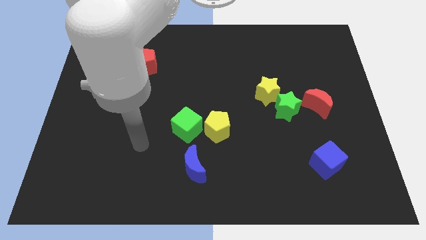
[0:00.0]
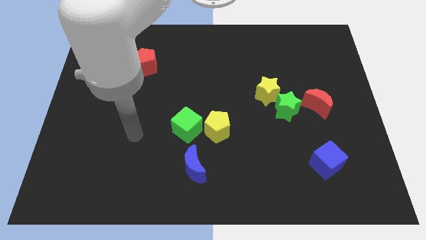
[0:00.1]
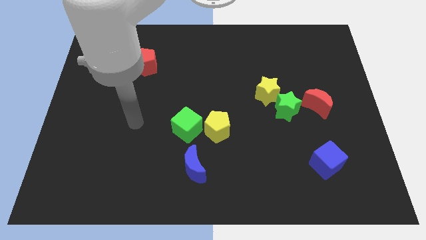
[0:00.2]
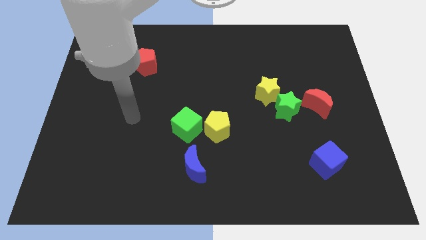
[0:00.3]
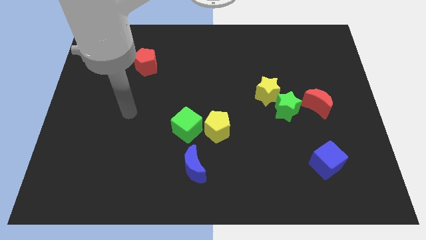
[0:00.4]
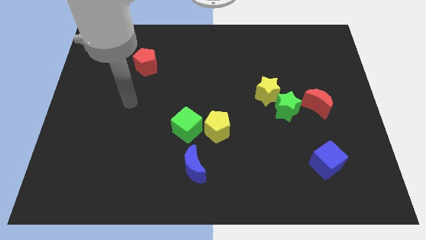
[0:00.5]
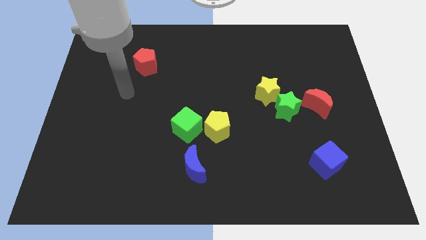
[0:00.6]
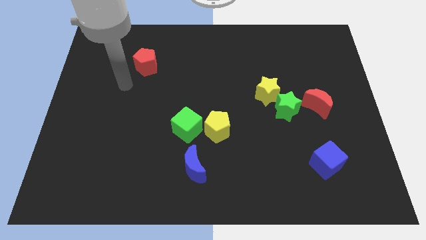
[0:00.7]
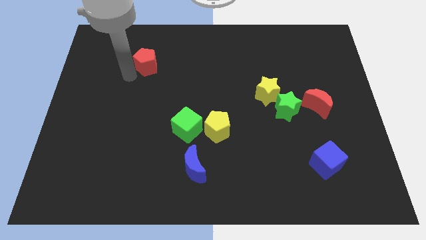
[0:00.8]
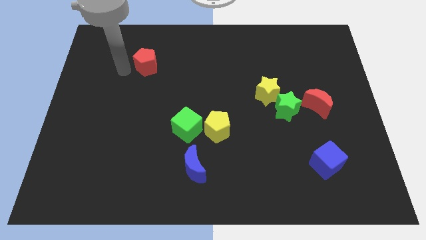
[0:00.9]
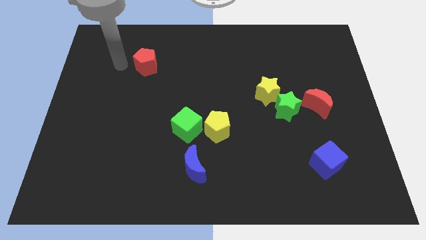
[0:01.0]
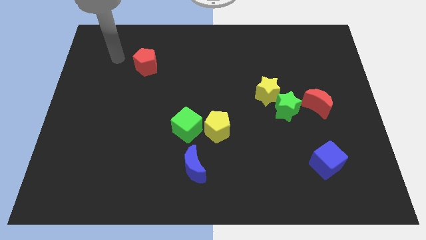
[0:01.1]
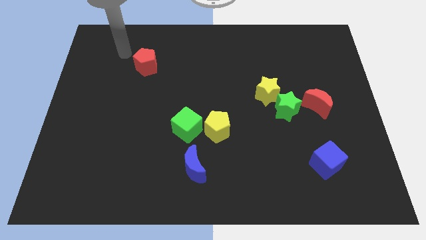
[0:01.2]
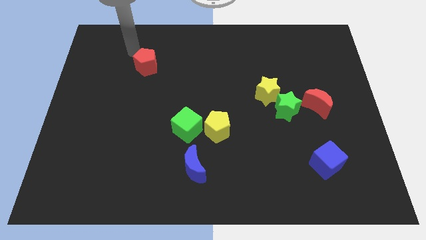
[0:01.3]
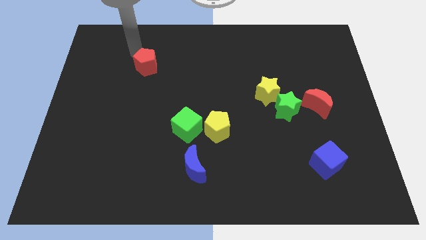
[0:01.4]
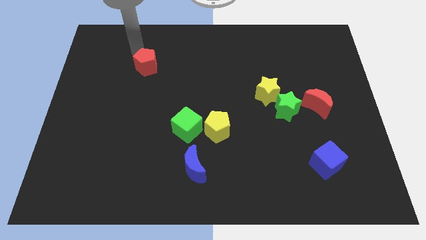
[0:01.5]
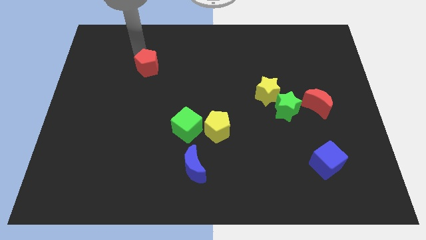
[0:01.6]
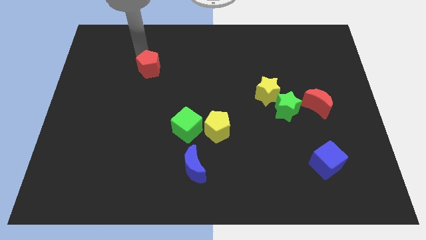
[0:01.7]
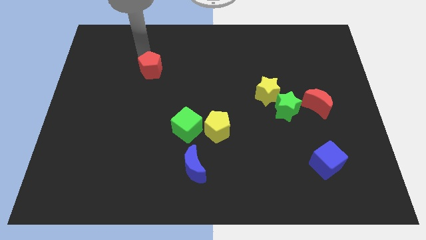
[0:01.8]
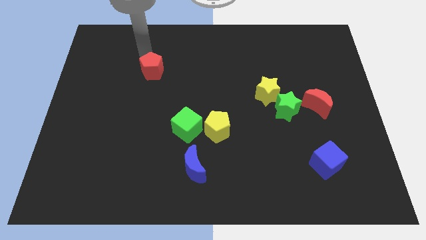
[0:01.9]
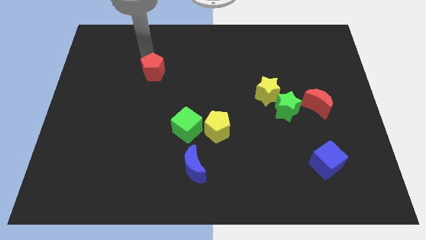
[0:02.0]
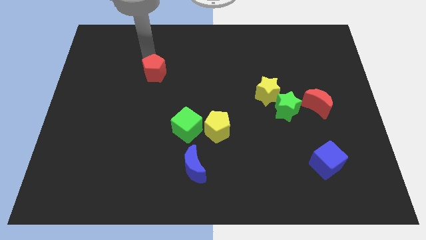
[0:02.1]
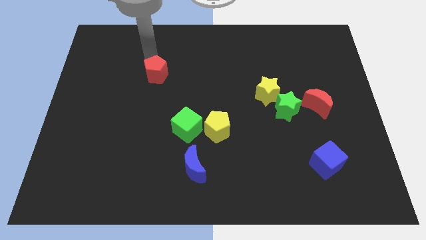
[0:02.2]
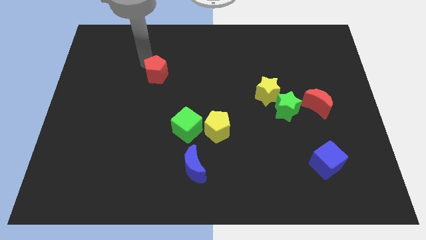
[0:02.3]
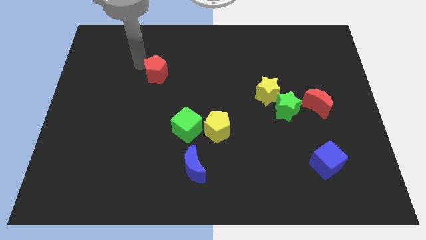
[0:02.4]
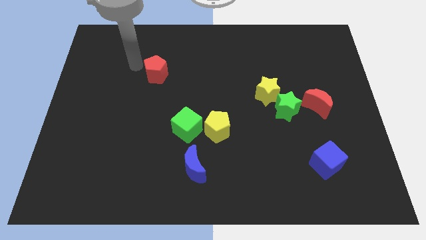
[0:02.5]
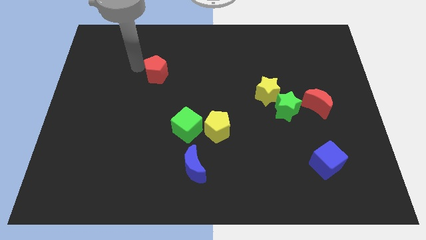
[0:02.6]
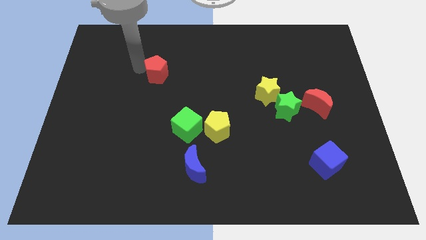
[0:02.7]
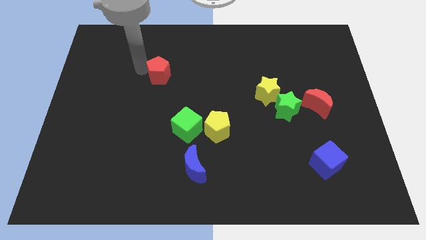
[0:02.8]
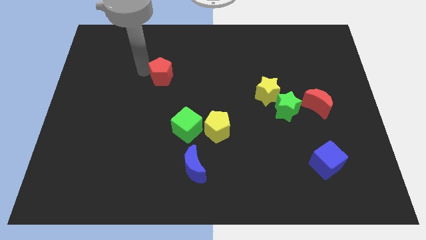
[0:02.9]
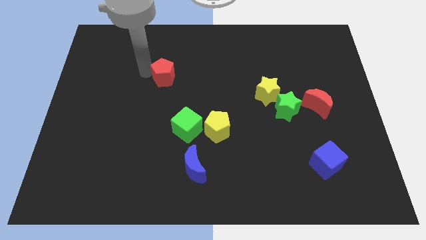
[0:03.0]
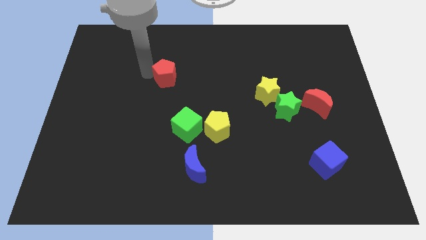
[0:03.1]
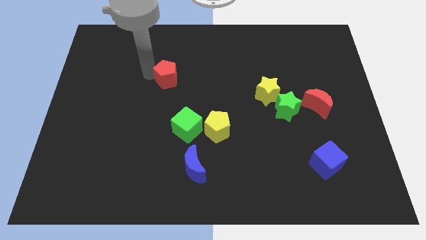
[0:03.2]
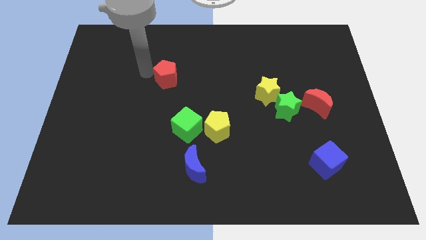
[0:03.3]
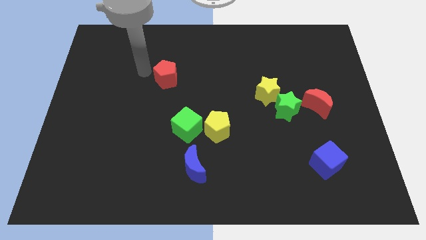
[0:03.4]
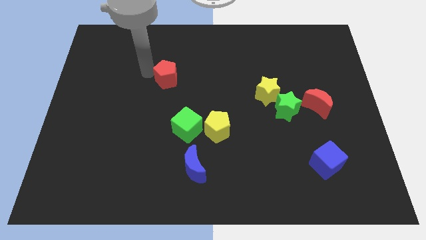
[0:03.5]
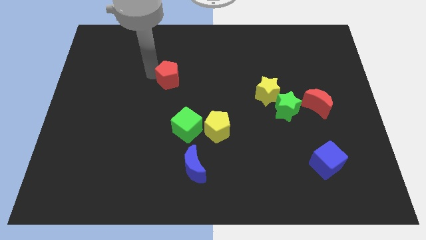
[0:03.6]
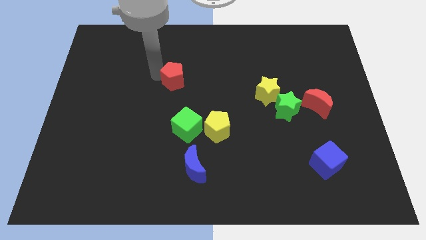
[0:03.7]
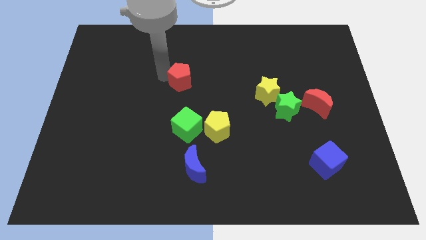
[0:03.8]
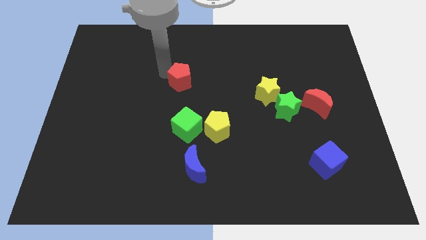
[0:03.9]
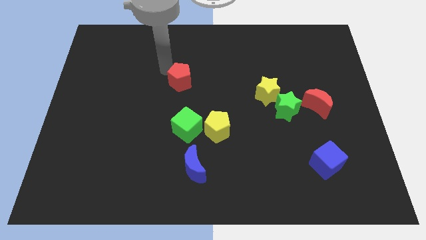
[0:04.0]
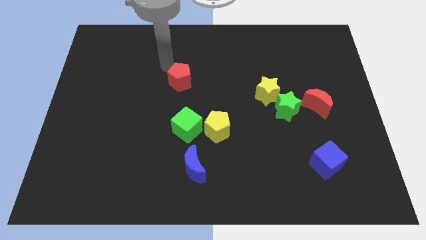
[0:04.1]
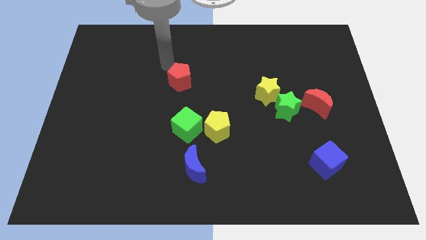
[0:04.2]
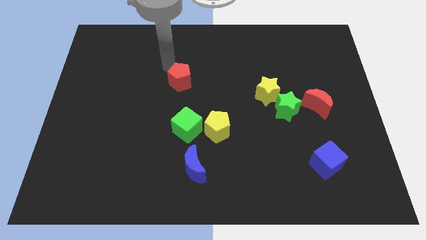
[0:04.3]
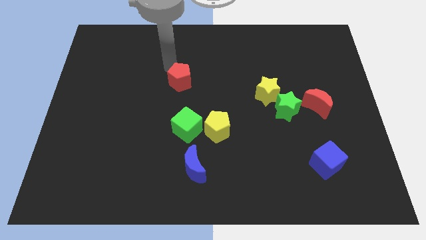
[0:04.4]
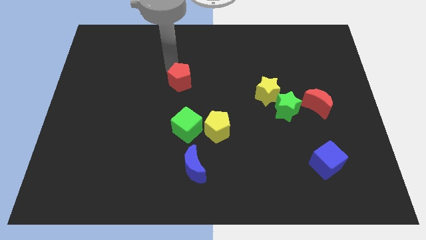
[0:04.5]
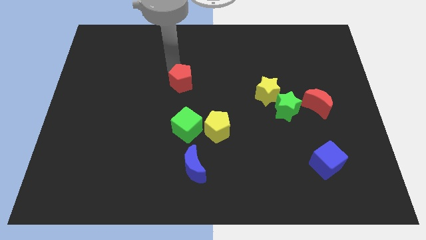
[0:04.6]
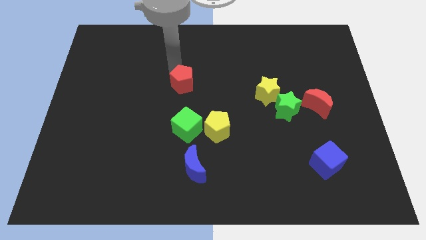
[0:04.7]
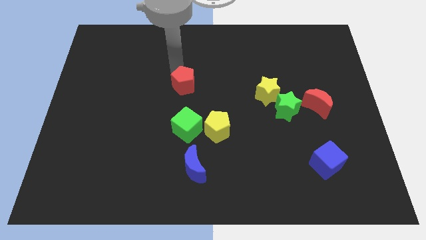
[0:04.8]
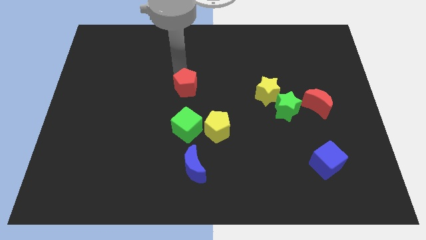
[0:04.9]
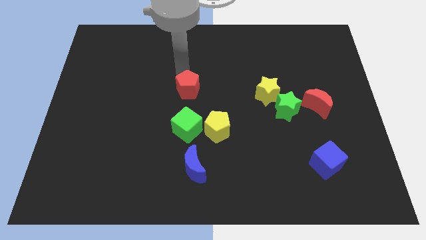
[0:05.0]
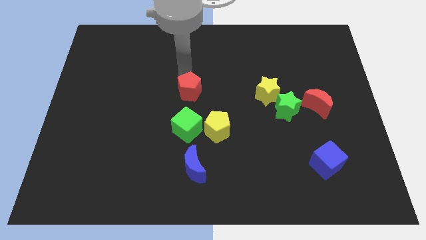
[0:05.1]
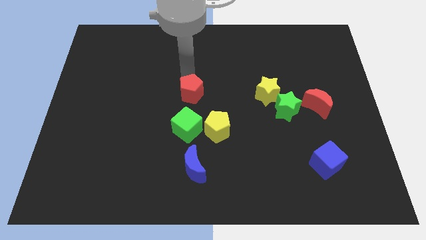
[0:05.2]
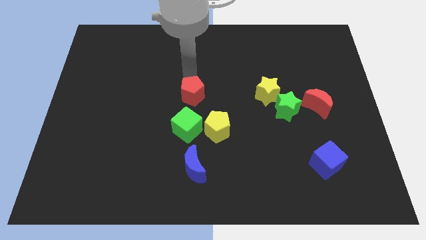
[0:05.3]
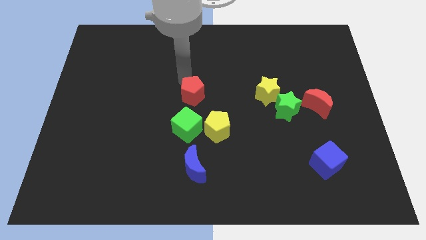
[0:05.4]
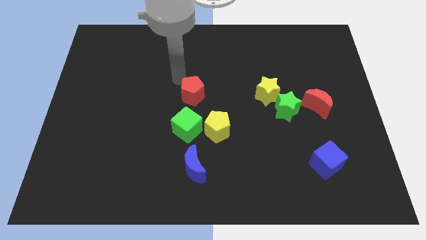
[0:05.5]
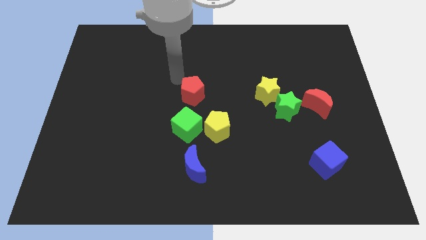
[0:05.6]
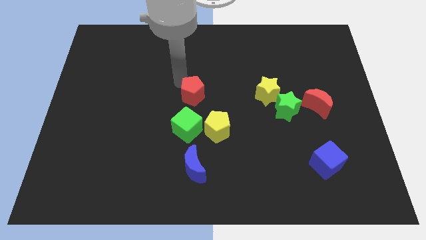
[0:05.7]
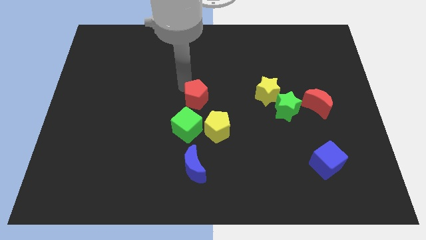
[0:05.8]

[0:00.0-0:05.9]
slide the red pentagon diagonally up and to the right of the green cube

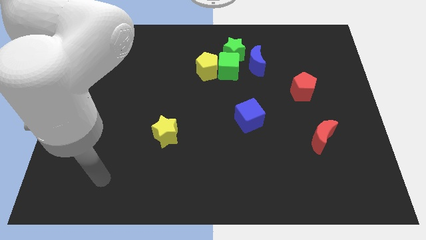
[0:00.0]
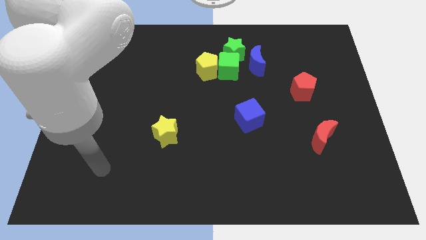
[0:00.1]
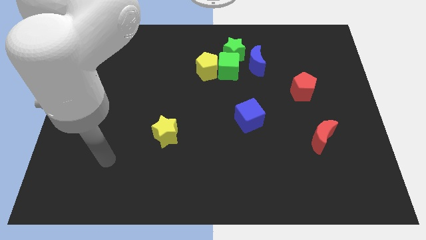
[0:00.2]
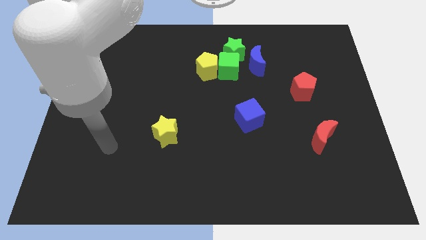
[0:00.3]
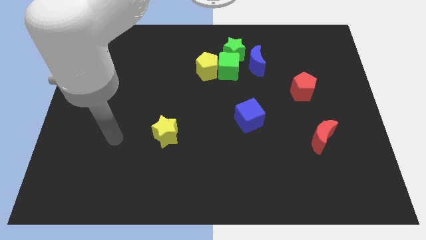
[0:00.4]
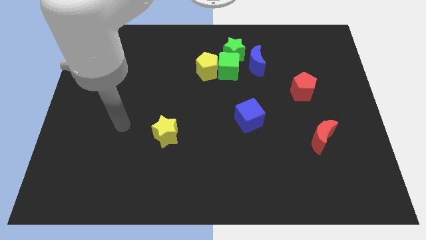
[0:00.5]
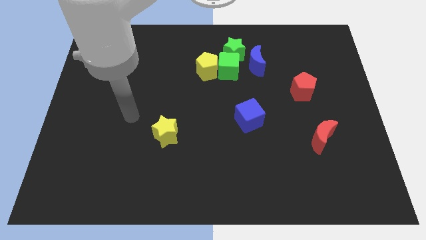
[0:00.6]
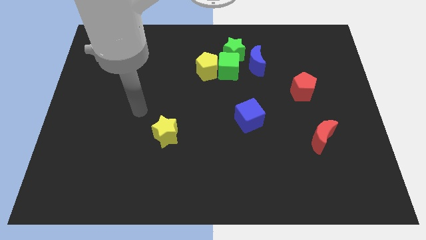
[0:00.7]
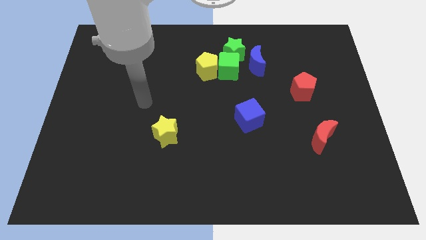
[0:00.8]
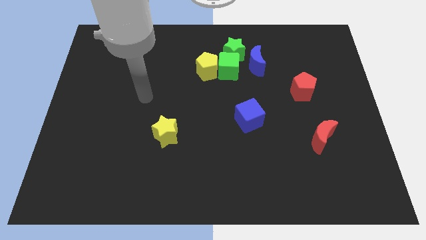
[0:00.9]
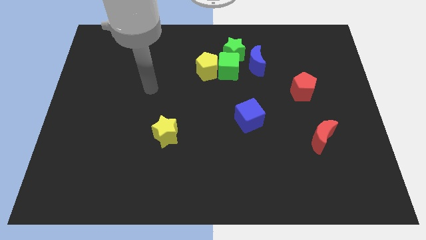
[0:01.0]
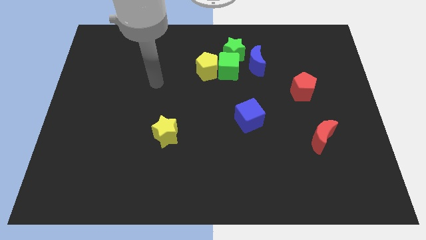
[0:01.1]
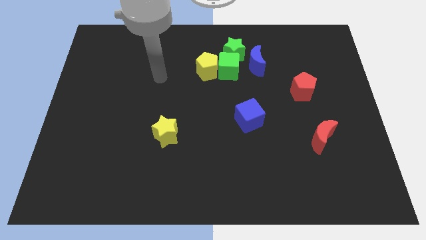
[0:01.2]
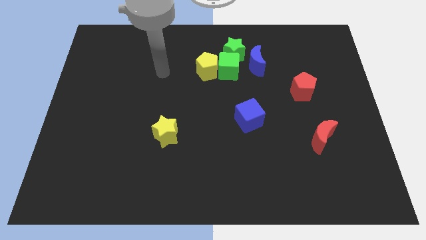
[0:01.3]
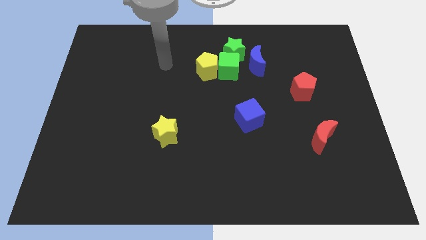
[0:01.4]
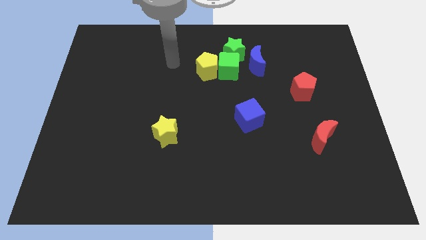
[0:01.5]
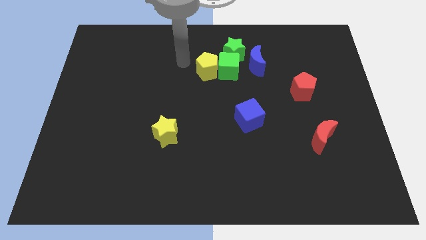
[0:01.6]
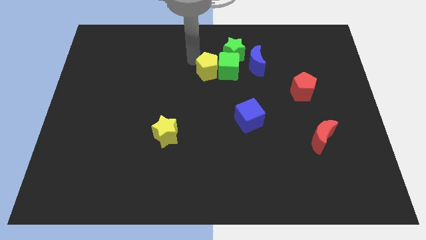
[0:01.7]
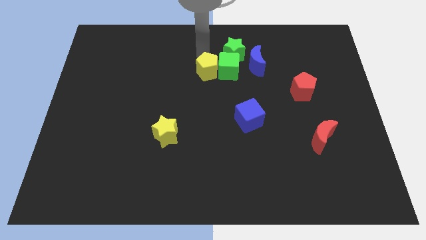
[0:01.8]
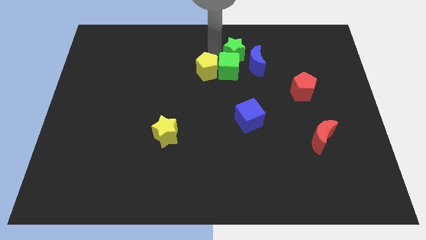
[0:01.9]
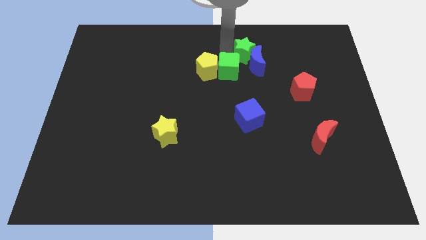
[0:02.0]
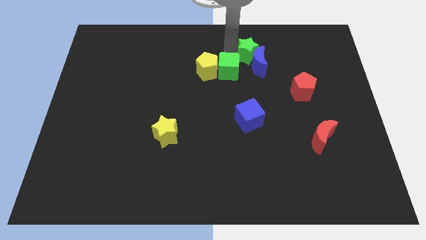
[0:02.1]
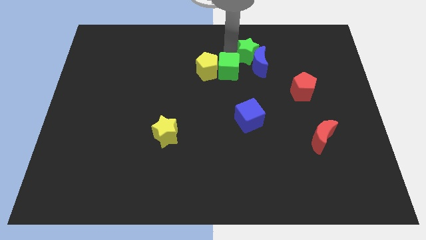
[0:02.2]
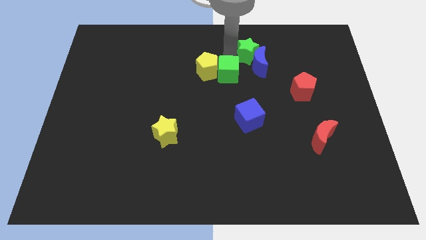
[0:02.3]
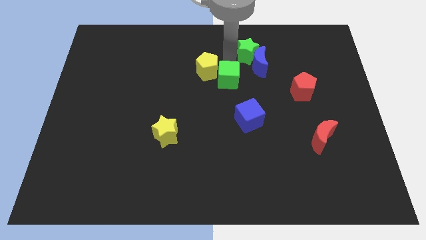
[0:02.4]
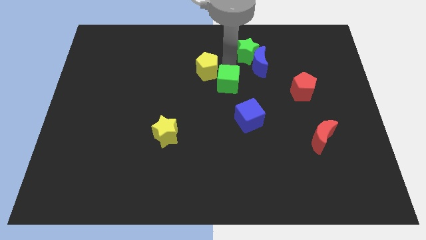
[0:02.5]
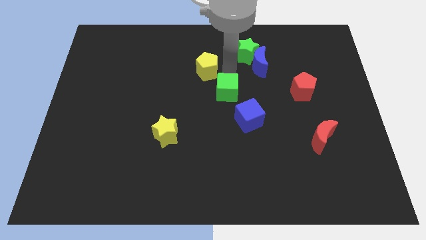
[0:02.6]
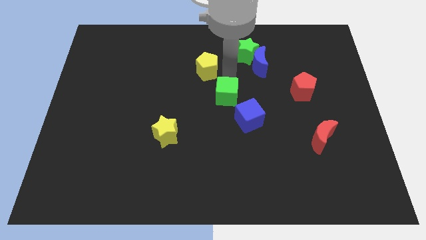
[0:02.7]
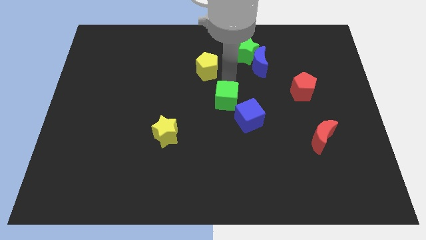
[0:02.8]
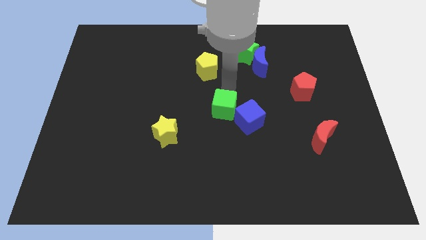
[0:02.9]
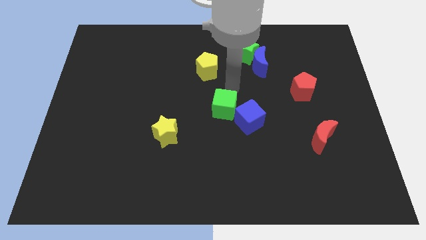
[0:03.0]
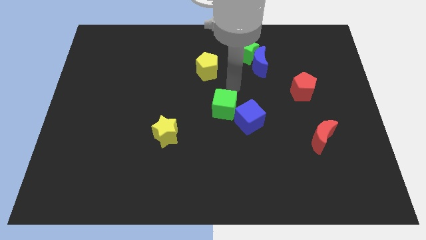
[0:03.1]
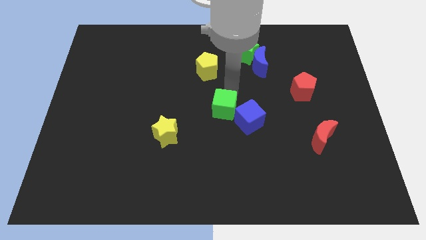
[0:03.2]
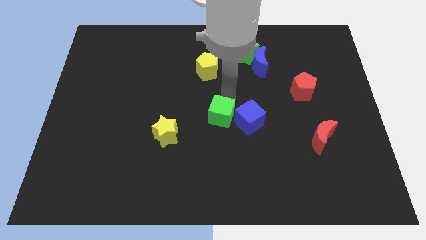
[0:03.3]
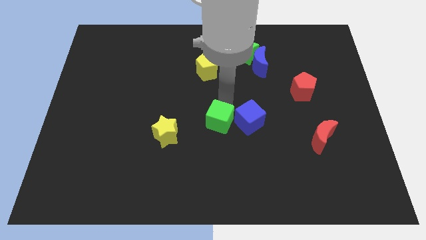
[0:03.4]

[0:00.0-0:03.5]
push the green cube right of the yellow star
